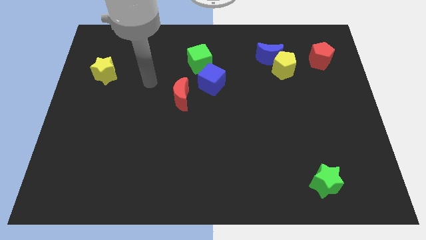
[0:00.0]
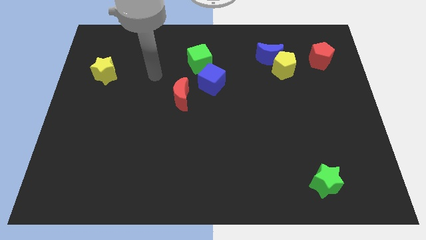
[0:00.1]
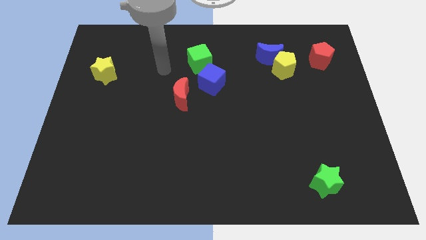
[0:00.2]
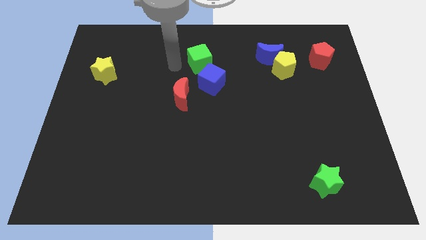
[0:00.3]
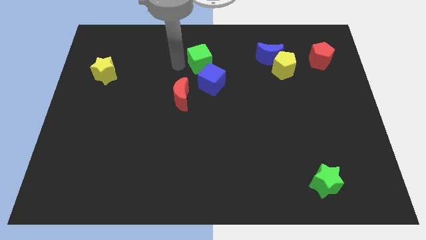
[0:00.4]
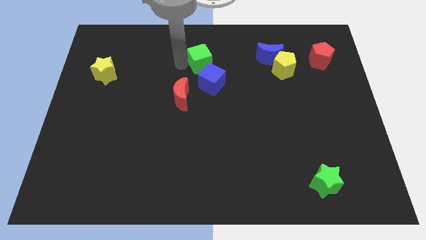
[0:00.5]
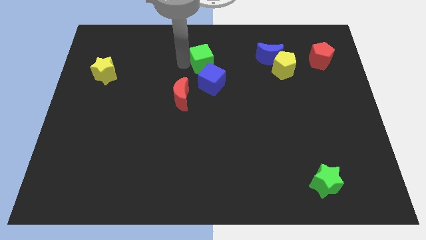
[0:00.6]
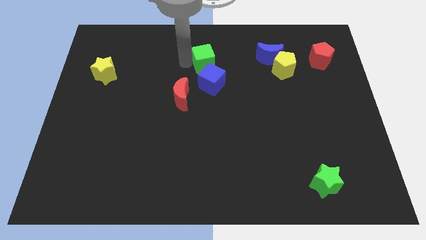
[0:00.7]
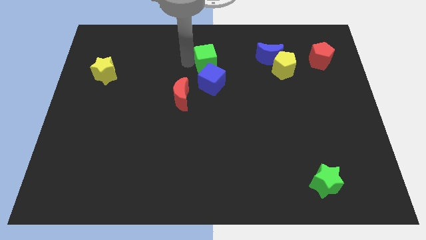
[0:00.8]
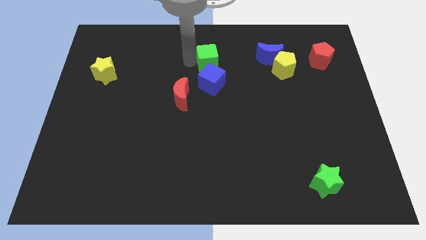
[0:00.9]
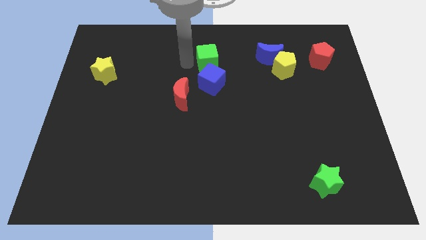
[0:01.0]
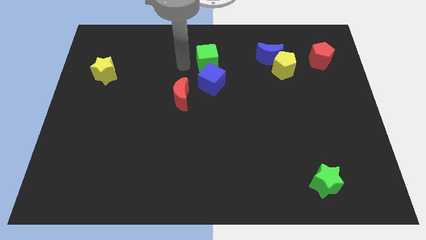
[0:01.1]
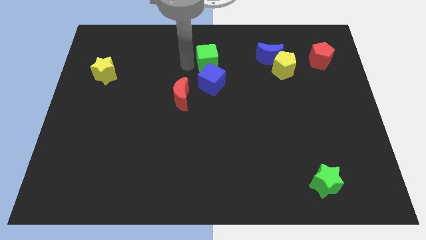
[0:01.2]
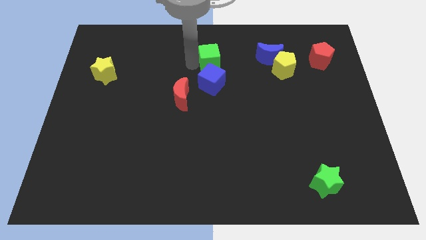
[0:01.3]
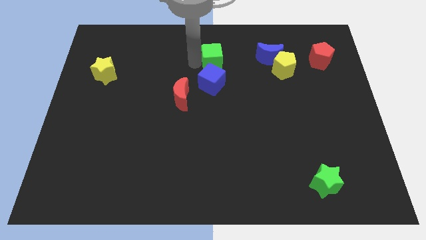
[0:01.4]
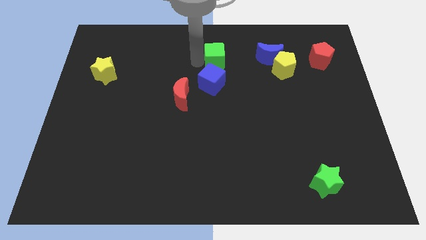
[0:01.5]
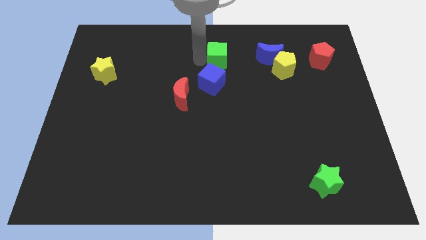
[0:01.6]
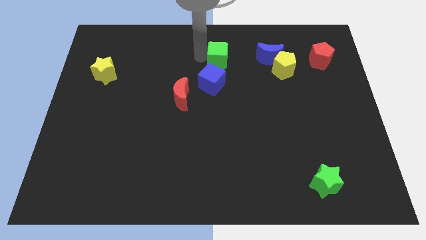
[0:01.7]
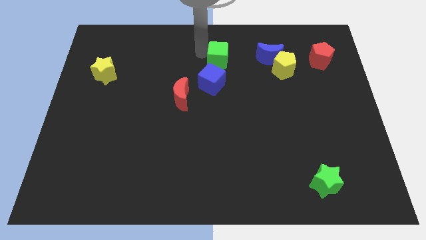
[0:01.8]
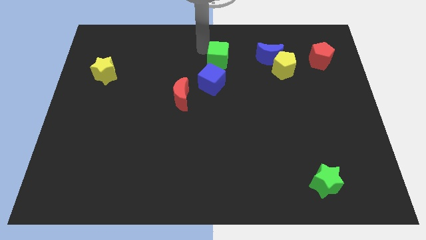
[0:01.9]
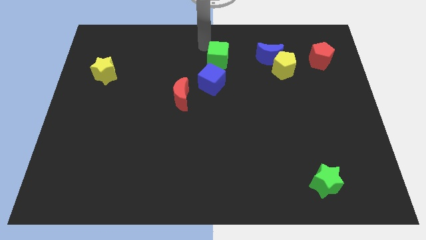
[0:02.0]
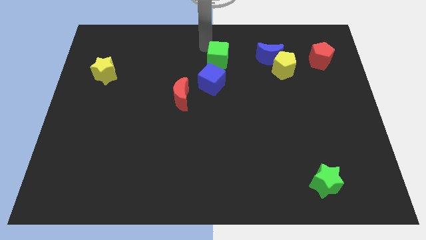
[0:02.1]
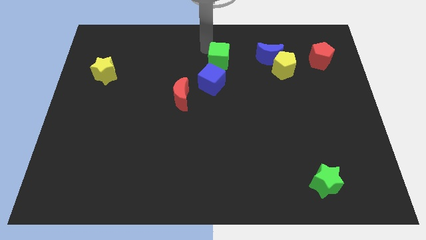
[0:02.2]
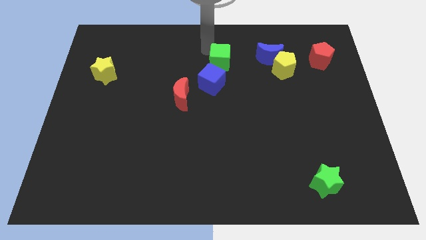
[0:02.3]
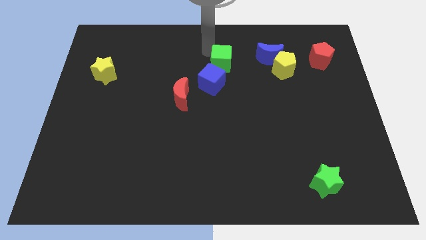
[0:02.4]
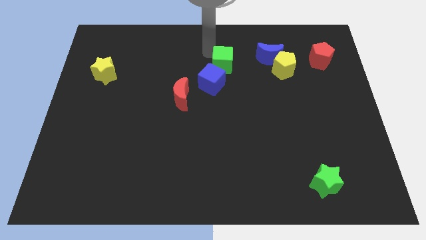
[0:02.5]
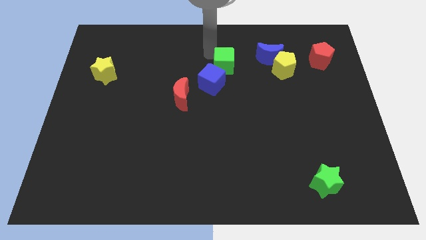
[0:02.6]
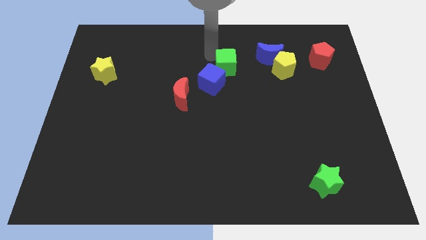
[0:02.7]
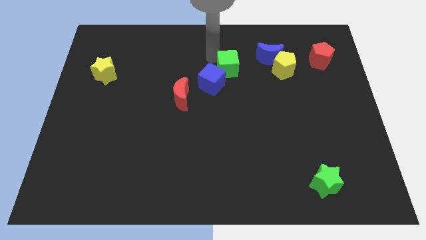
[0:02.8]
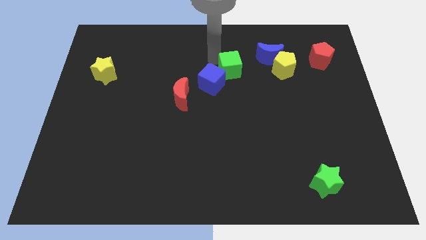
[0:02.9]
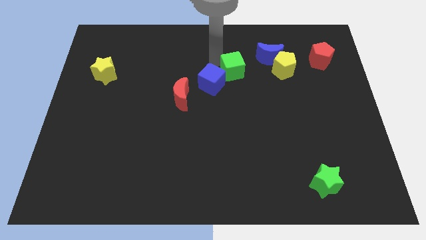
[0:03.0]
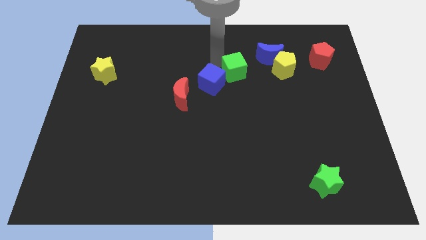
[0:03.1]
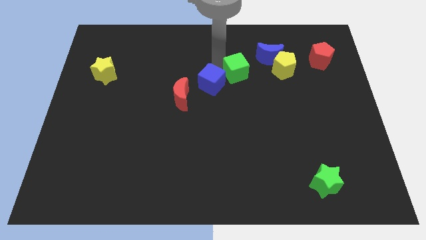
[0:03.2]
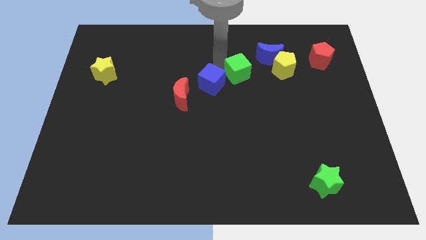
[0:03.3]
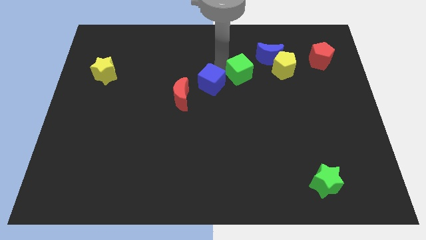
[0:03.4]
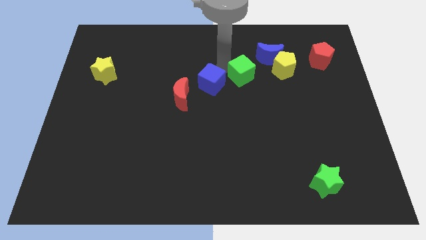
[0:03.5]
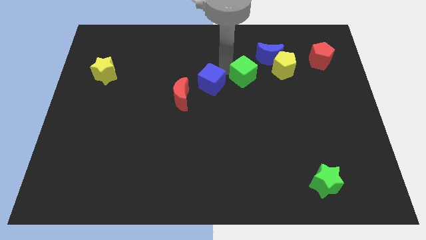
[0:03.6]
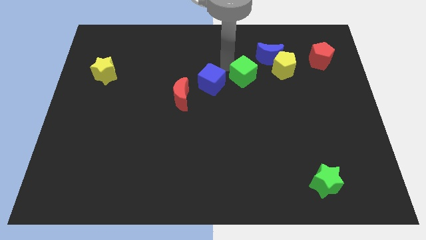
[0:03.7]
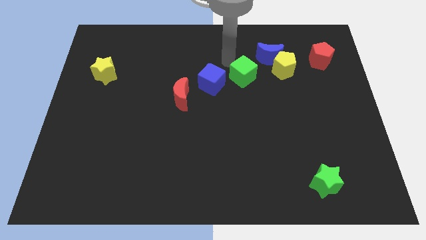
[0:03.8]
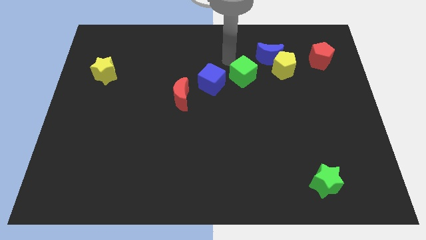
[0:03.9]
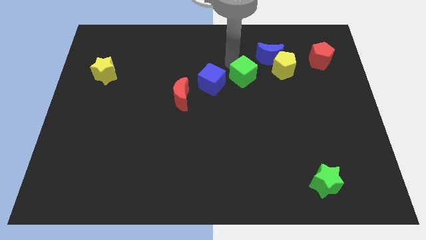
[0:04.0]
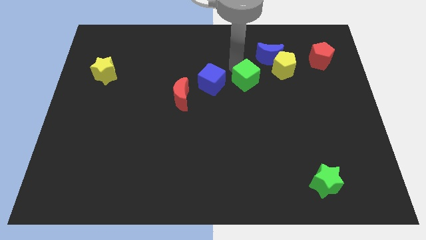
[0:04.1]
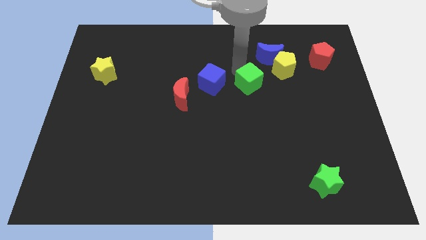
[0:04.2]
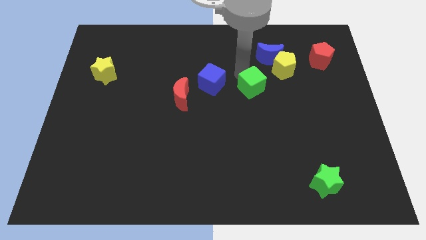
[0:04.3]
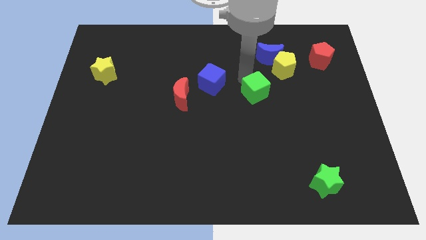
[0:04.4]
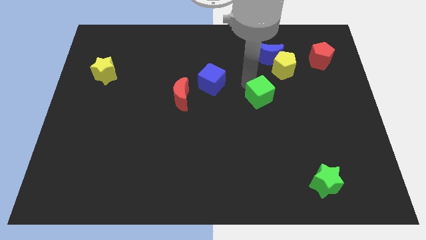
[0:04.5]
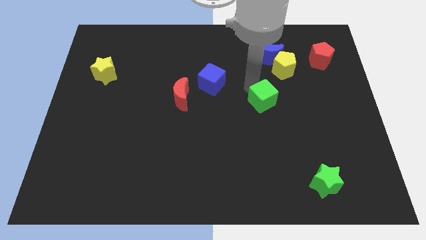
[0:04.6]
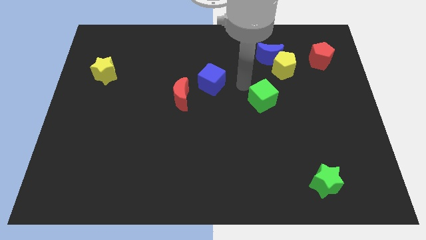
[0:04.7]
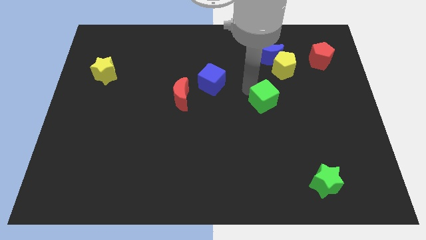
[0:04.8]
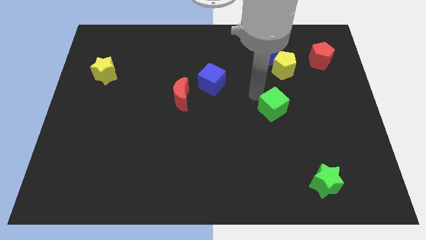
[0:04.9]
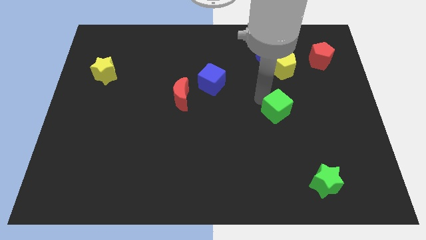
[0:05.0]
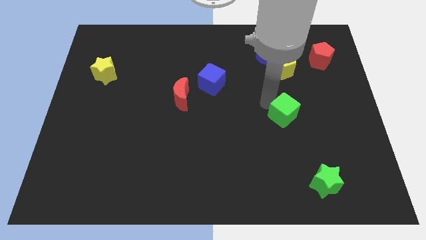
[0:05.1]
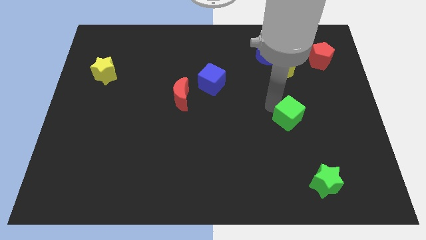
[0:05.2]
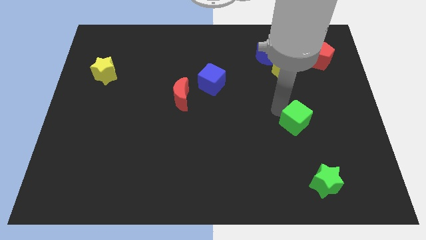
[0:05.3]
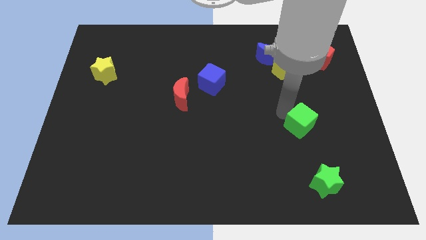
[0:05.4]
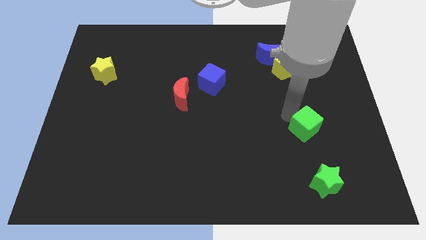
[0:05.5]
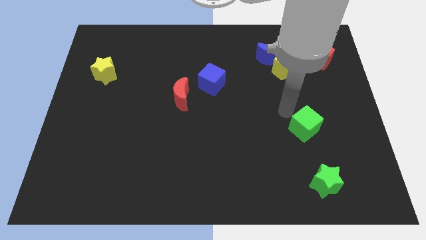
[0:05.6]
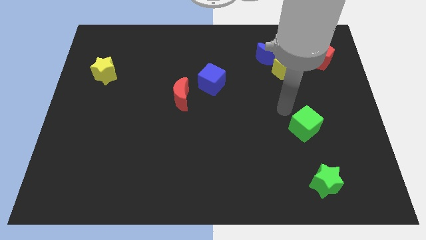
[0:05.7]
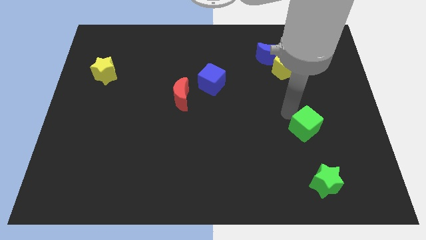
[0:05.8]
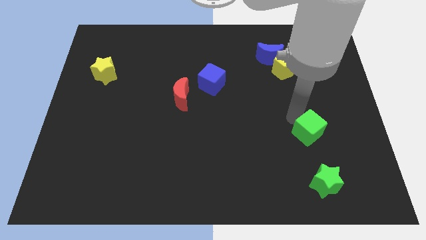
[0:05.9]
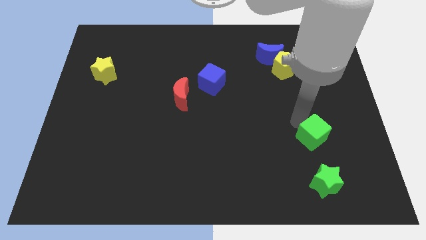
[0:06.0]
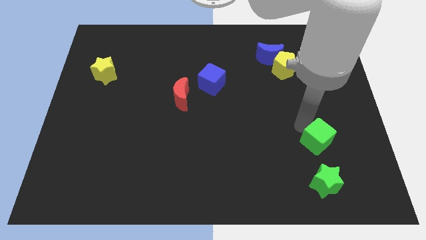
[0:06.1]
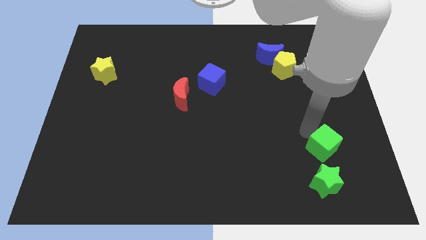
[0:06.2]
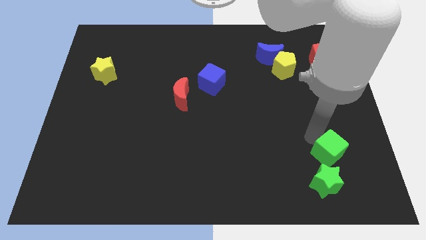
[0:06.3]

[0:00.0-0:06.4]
push the green cube to the top right side of the green star

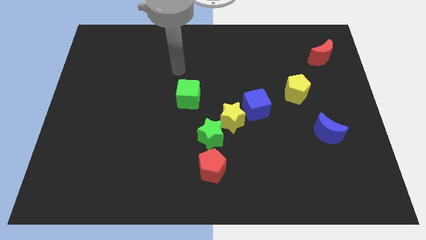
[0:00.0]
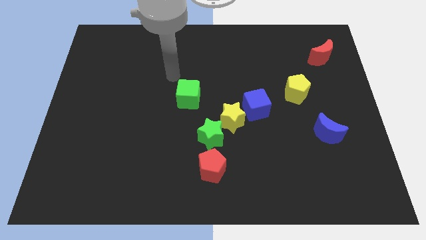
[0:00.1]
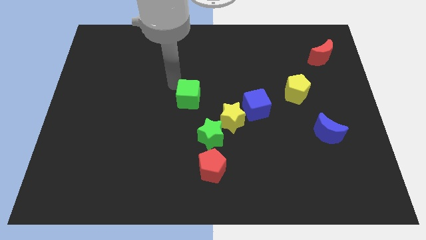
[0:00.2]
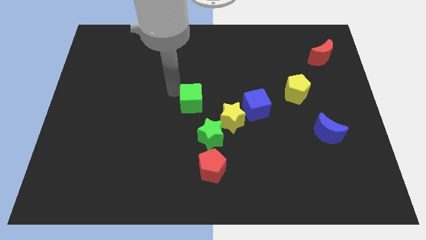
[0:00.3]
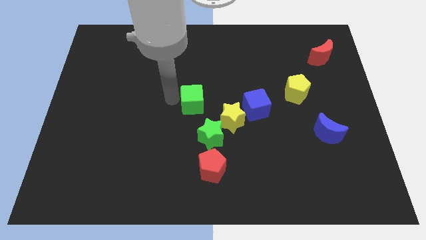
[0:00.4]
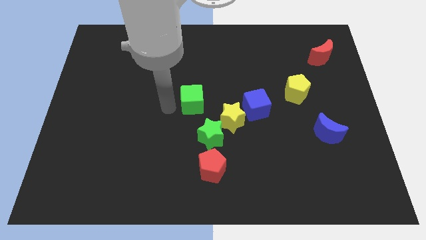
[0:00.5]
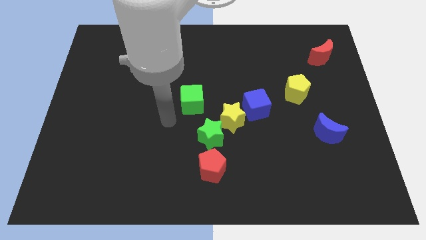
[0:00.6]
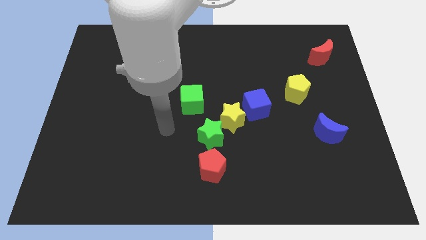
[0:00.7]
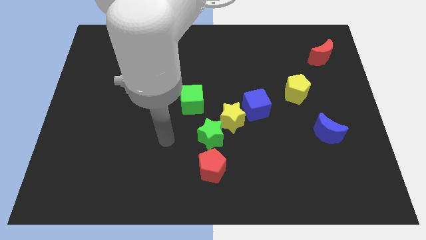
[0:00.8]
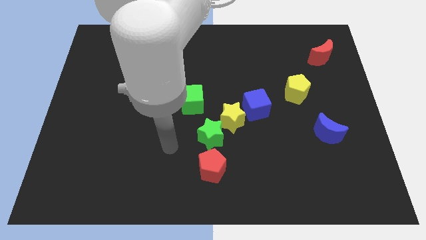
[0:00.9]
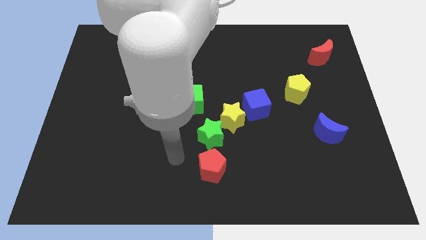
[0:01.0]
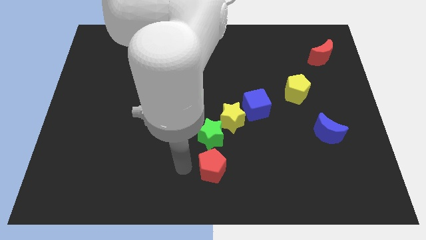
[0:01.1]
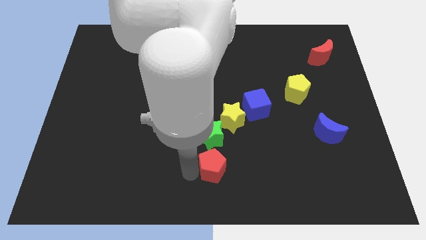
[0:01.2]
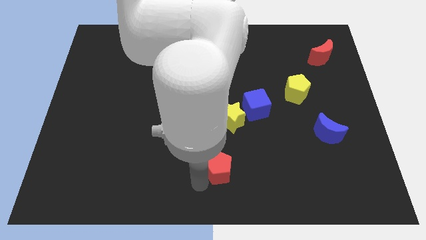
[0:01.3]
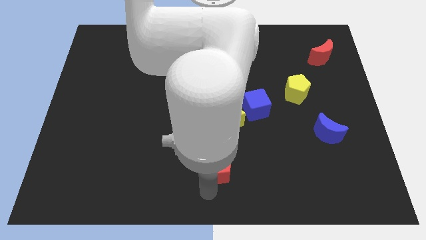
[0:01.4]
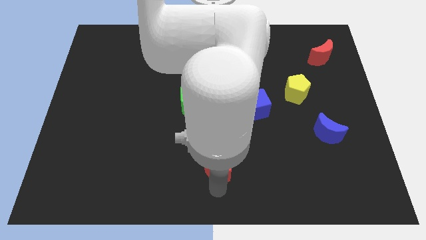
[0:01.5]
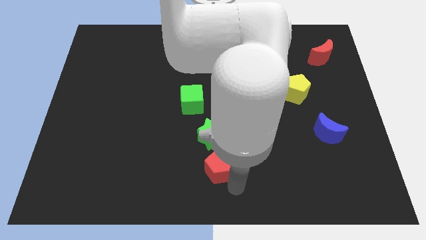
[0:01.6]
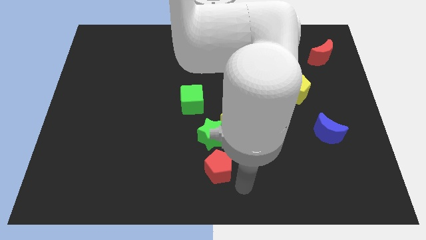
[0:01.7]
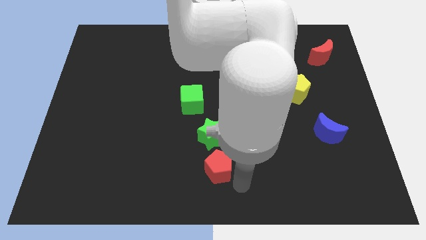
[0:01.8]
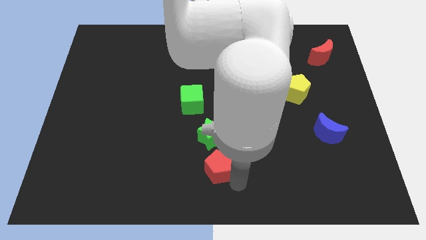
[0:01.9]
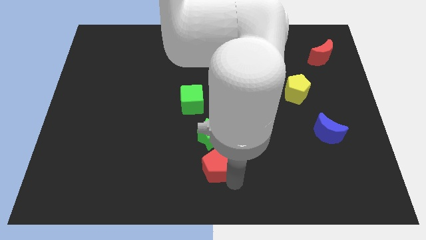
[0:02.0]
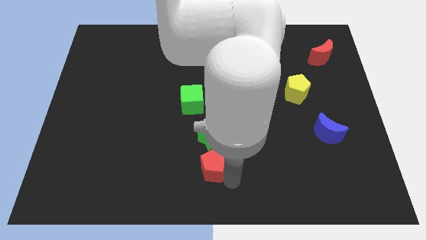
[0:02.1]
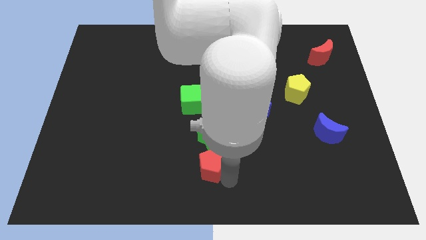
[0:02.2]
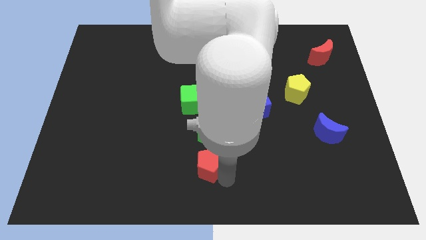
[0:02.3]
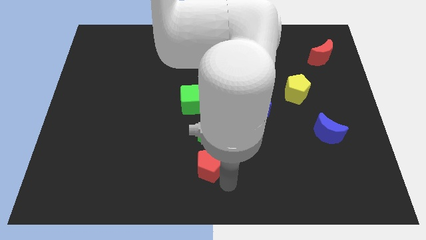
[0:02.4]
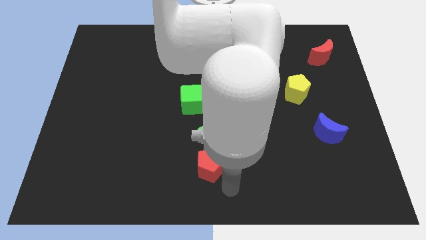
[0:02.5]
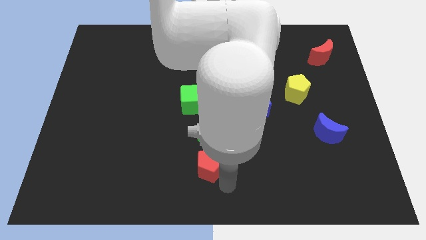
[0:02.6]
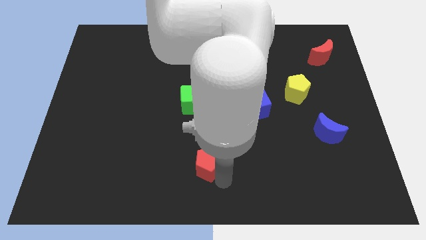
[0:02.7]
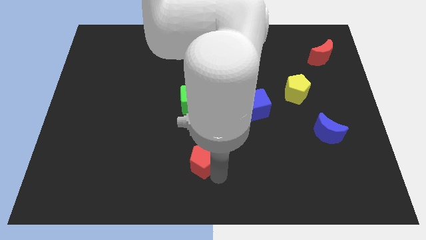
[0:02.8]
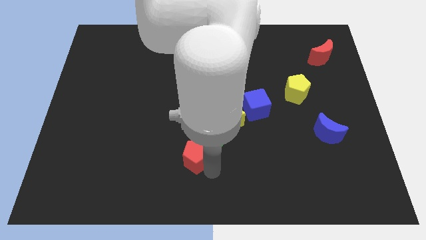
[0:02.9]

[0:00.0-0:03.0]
slide the red pentagon to the bottom of the green cube
